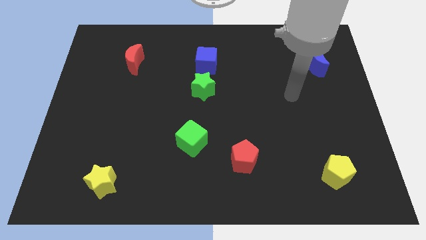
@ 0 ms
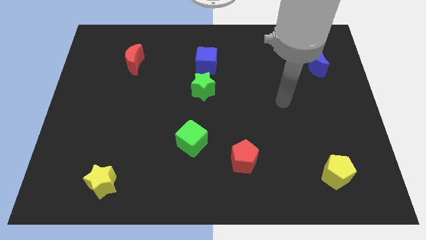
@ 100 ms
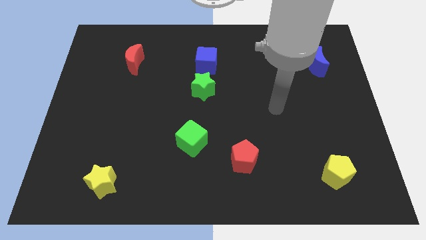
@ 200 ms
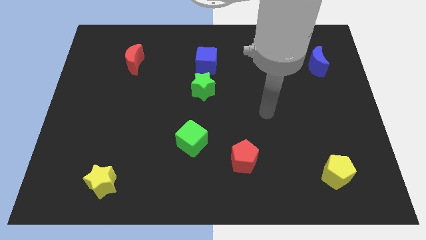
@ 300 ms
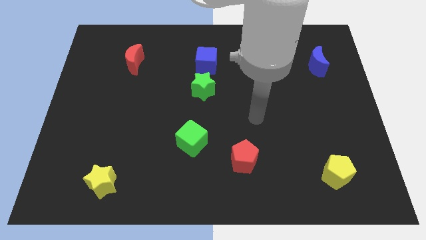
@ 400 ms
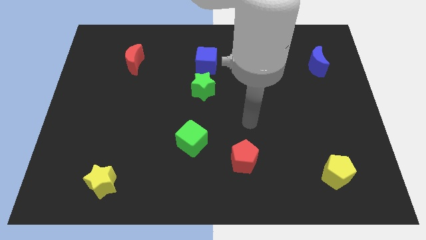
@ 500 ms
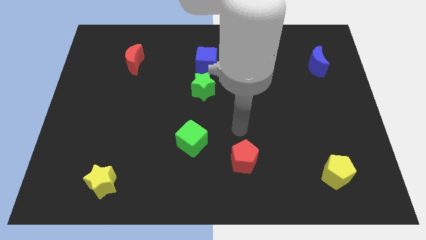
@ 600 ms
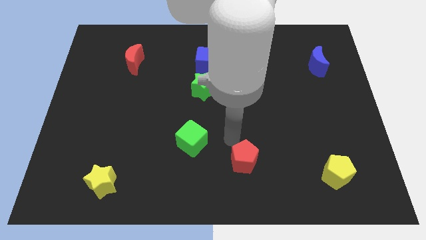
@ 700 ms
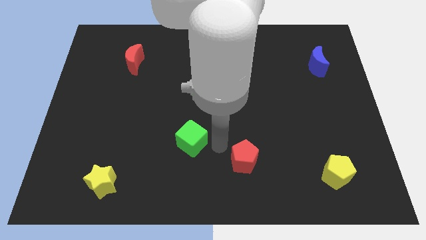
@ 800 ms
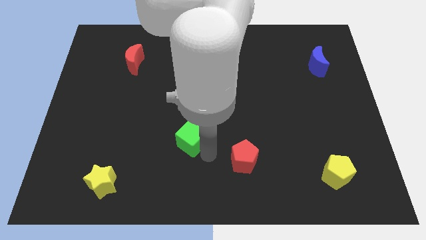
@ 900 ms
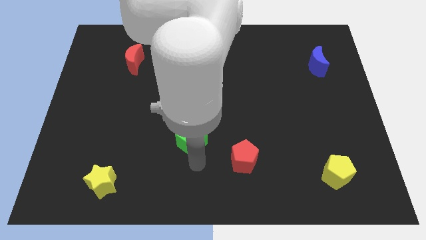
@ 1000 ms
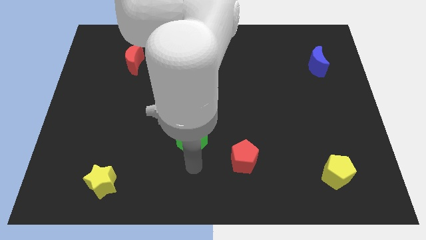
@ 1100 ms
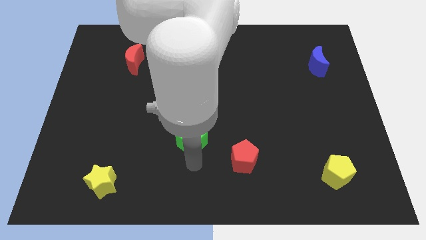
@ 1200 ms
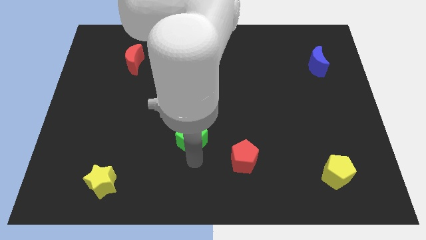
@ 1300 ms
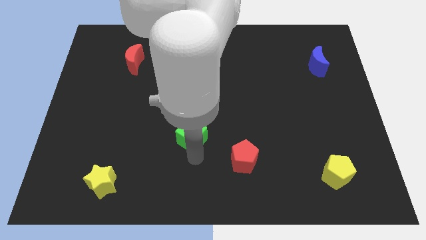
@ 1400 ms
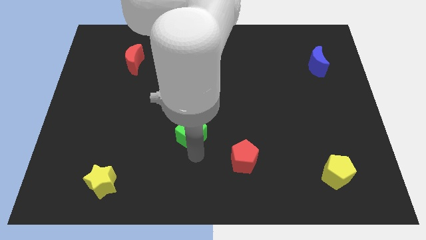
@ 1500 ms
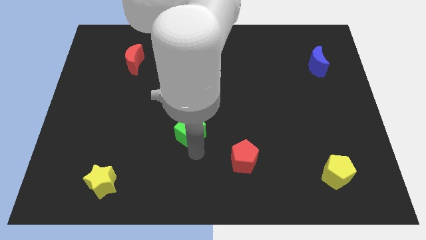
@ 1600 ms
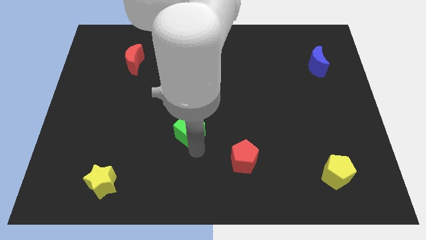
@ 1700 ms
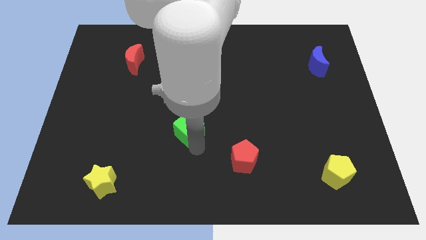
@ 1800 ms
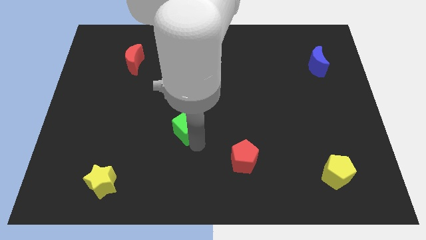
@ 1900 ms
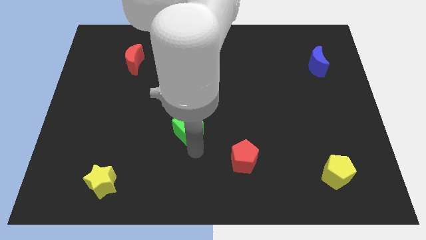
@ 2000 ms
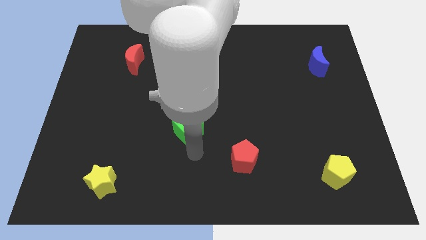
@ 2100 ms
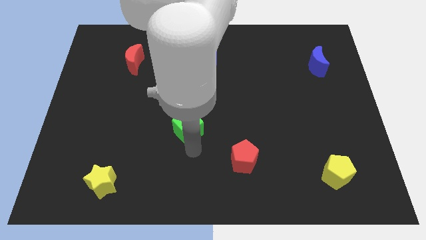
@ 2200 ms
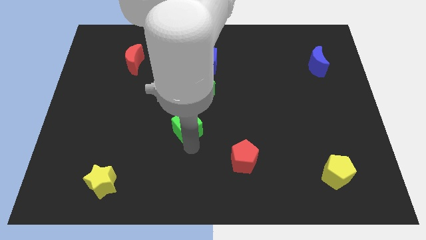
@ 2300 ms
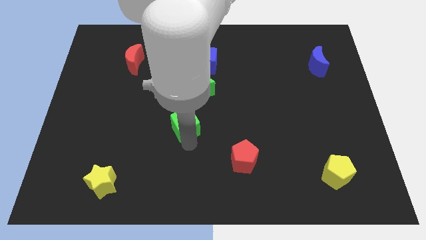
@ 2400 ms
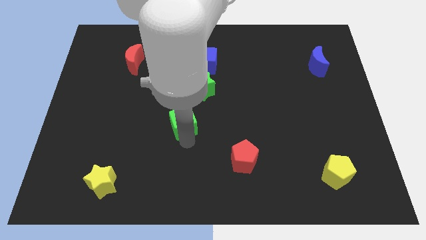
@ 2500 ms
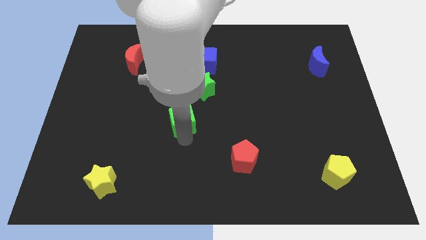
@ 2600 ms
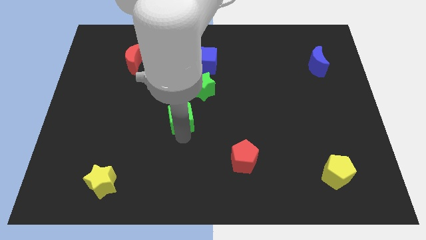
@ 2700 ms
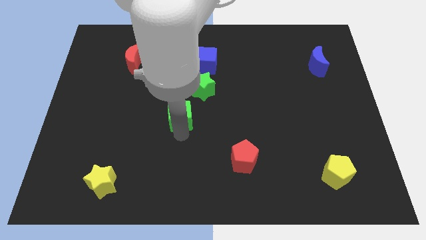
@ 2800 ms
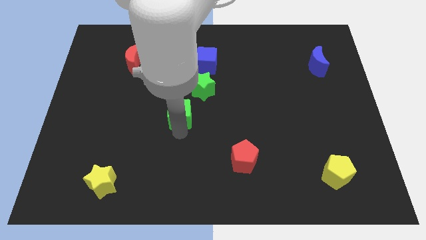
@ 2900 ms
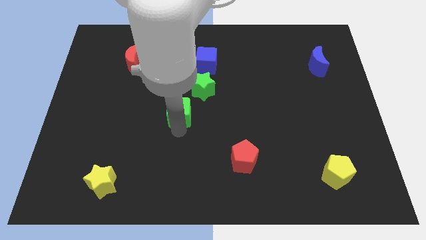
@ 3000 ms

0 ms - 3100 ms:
slightly push the green cube up

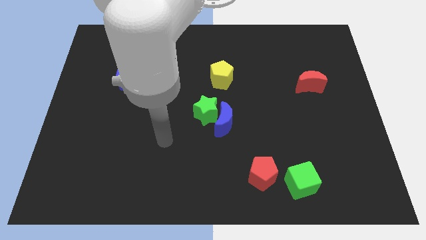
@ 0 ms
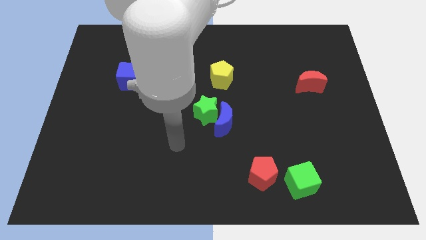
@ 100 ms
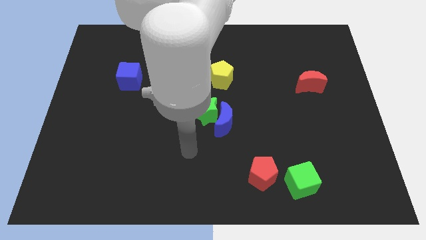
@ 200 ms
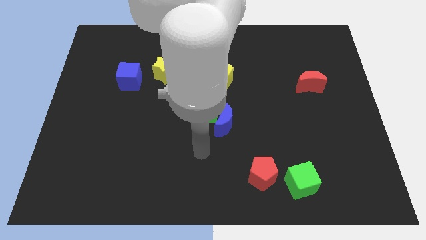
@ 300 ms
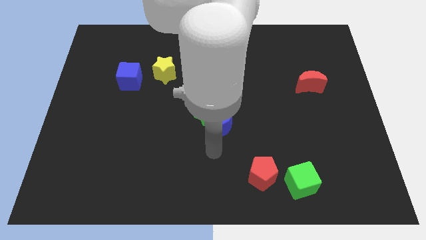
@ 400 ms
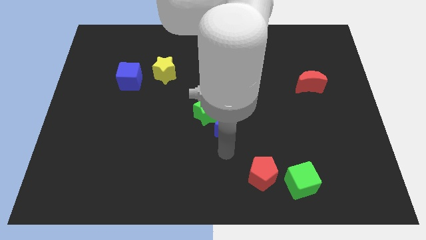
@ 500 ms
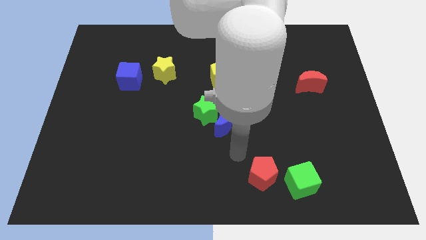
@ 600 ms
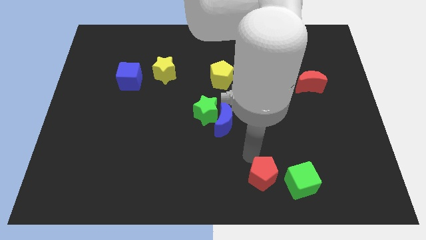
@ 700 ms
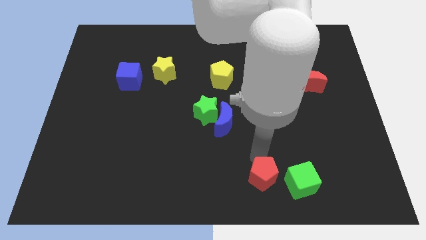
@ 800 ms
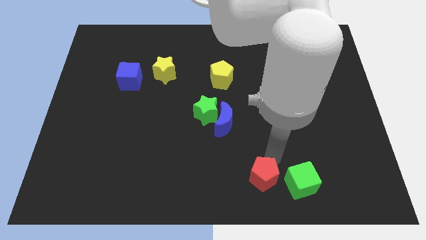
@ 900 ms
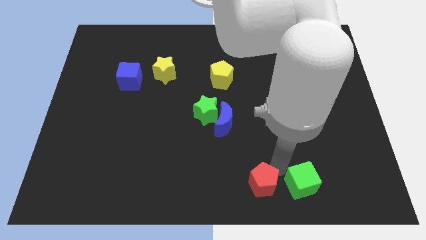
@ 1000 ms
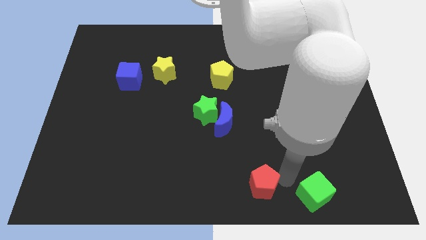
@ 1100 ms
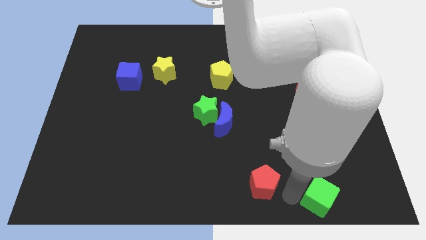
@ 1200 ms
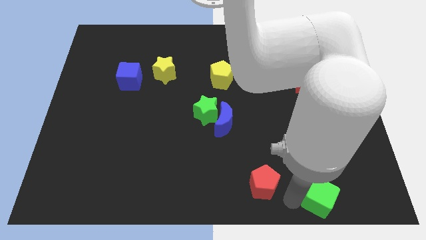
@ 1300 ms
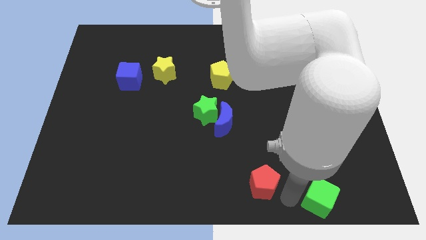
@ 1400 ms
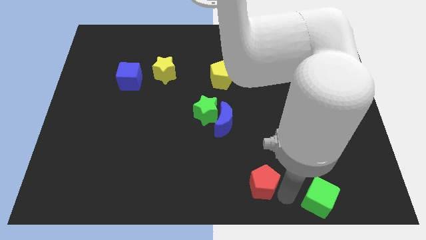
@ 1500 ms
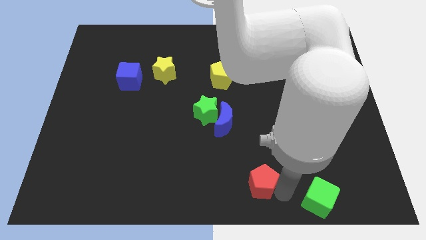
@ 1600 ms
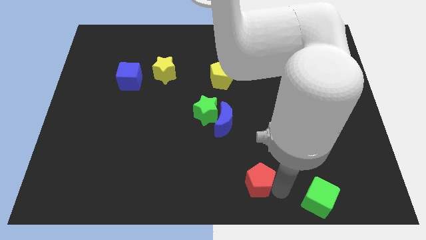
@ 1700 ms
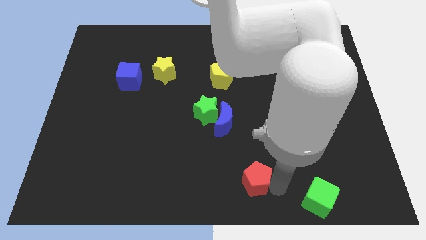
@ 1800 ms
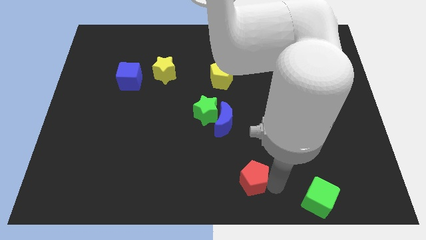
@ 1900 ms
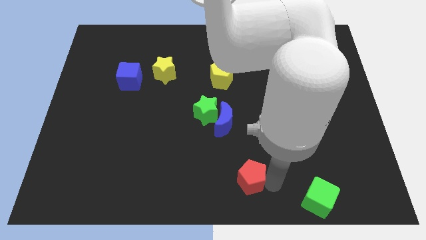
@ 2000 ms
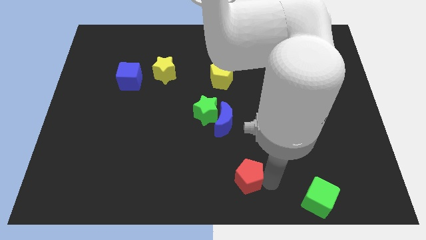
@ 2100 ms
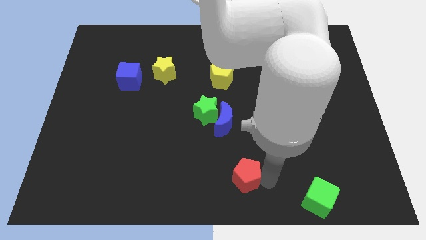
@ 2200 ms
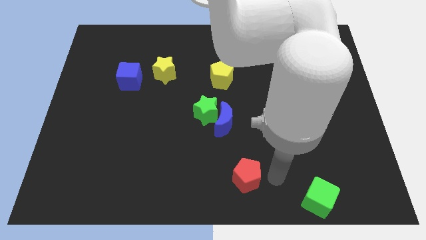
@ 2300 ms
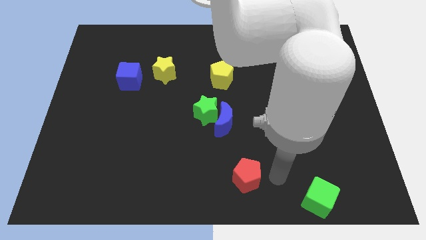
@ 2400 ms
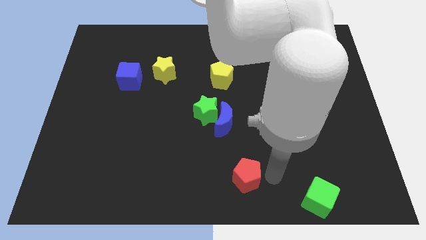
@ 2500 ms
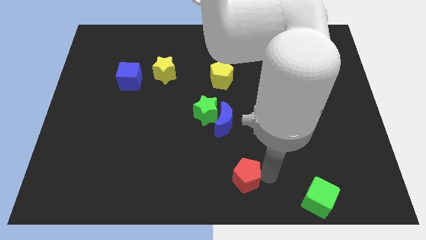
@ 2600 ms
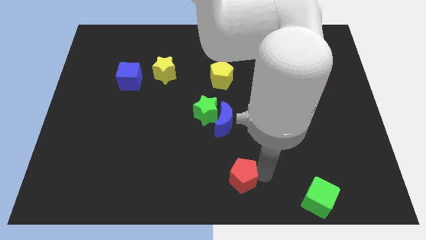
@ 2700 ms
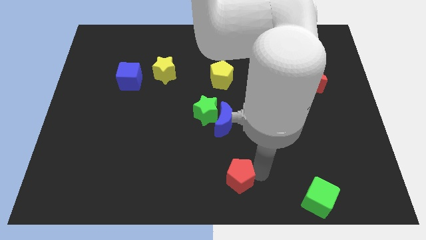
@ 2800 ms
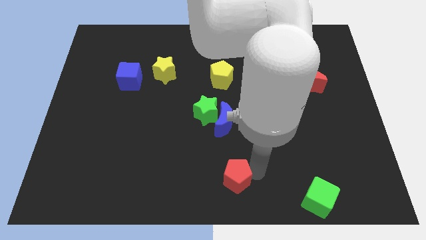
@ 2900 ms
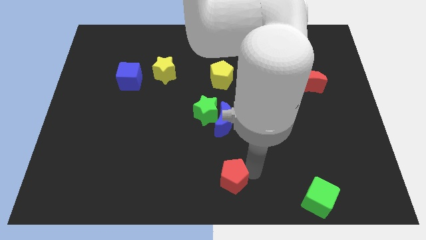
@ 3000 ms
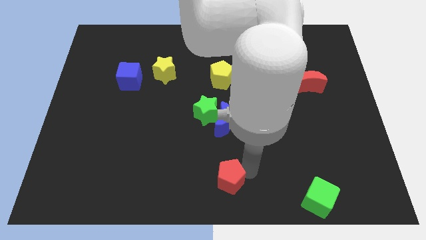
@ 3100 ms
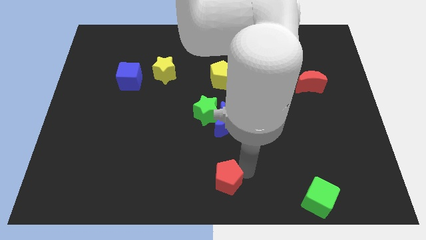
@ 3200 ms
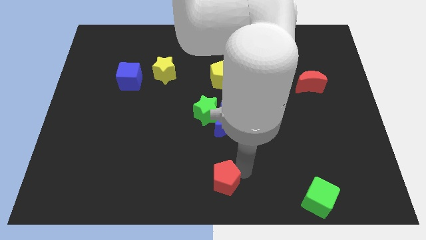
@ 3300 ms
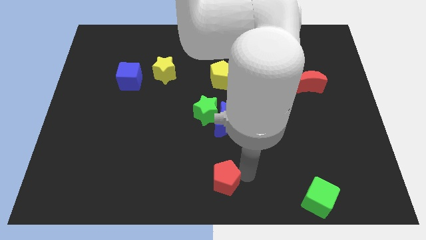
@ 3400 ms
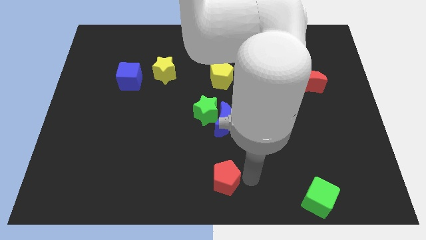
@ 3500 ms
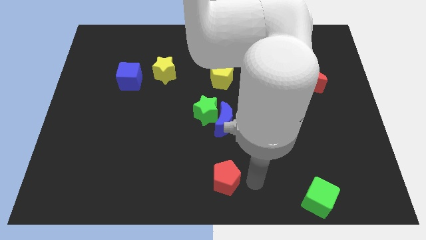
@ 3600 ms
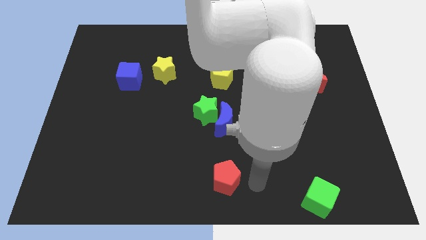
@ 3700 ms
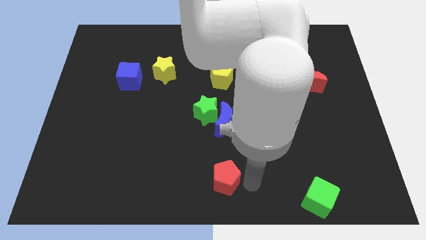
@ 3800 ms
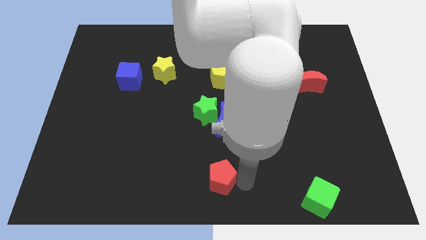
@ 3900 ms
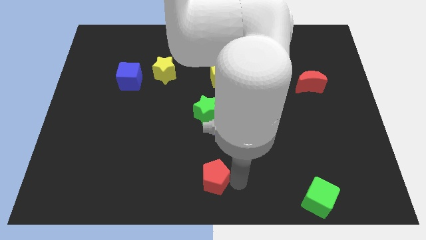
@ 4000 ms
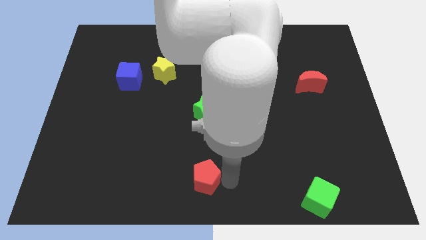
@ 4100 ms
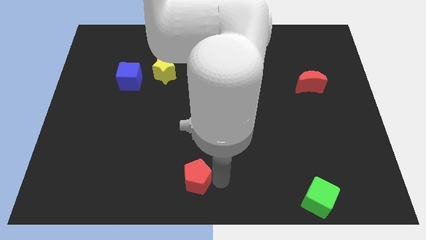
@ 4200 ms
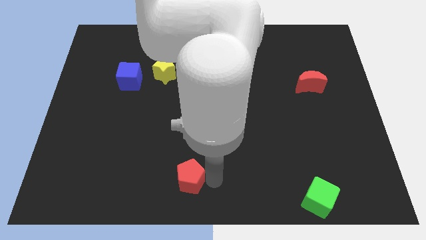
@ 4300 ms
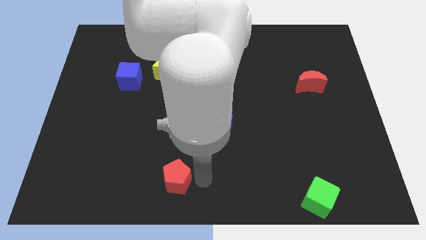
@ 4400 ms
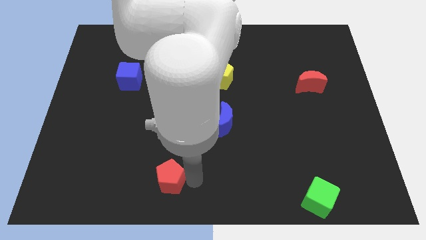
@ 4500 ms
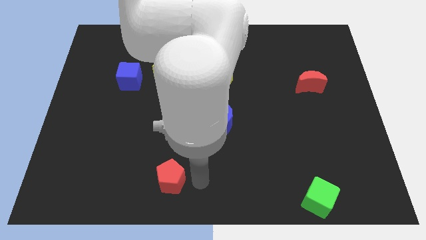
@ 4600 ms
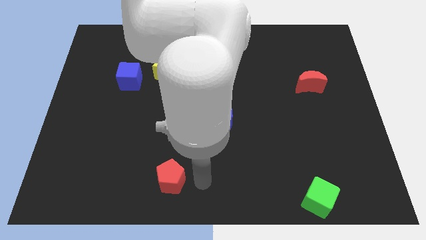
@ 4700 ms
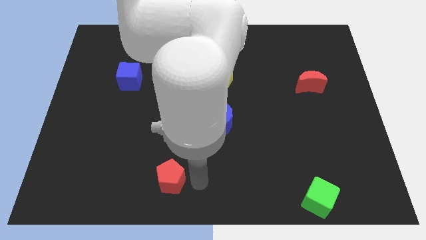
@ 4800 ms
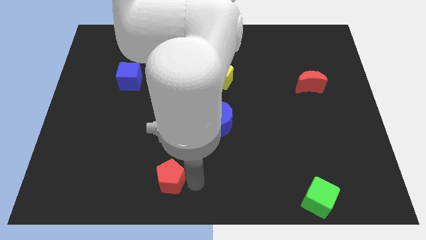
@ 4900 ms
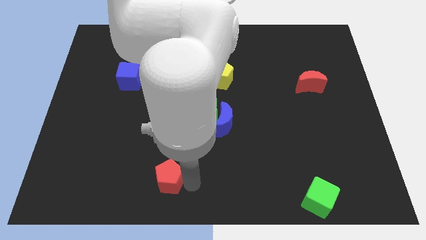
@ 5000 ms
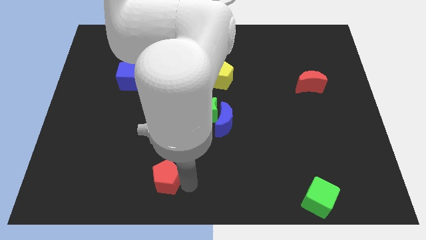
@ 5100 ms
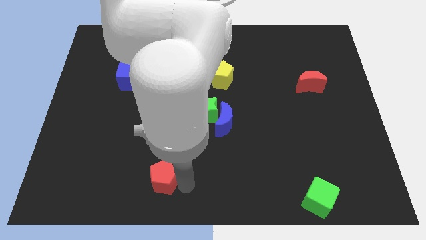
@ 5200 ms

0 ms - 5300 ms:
slide the red pentagon to the left

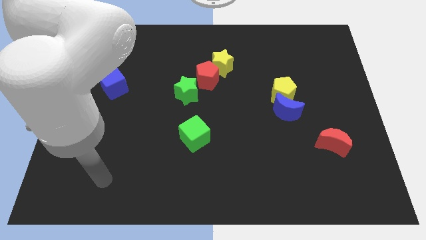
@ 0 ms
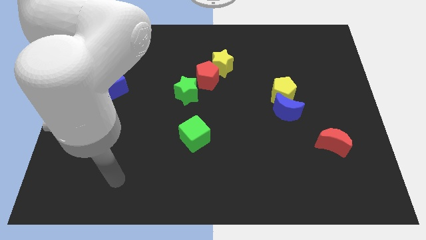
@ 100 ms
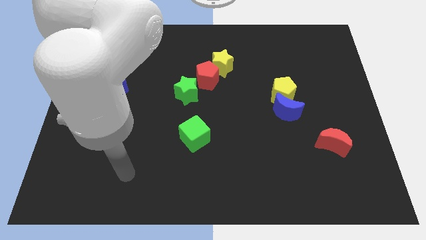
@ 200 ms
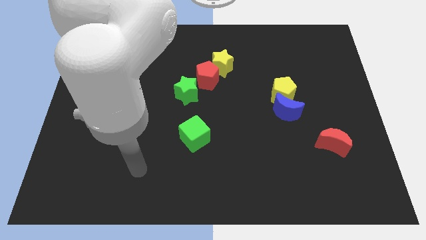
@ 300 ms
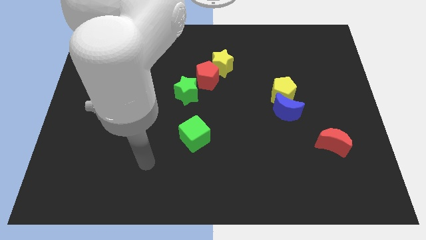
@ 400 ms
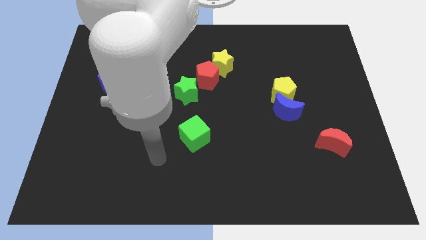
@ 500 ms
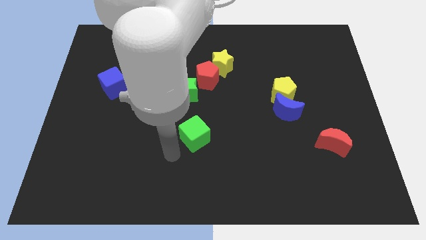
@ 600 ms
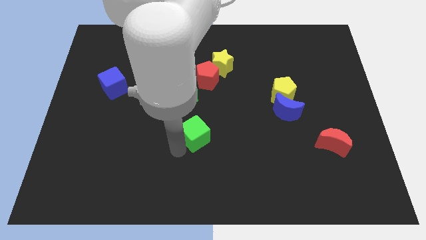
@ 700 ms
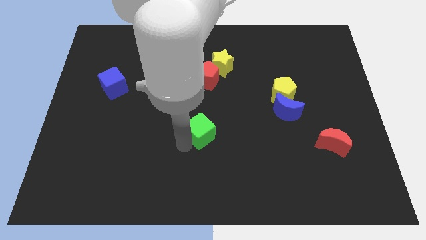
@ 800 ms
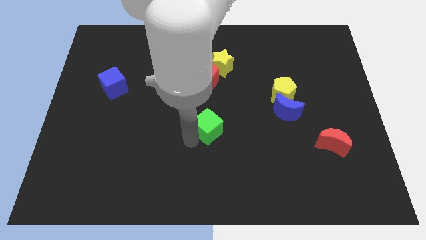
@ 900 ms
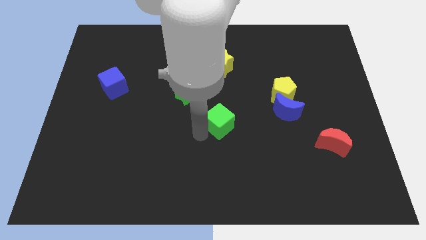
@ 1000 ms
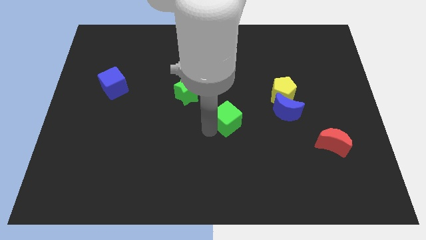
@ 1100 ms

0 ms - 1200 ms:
slightly push the green cube upwards and right diagonally
